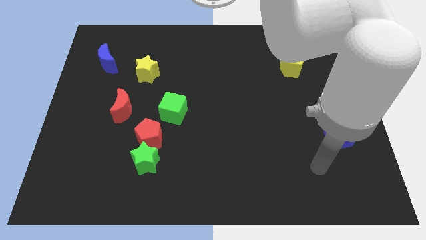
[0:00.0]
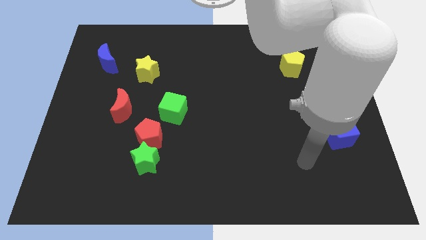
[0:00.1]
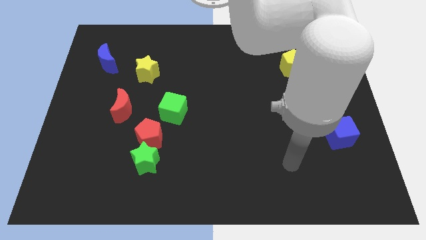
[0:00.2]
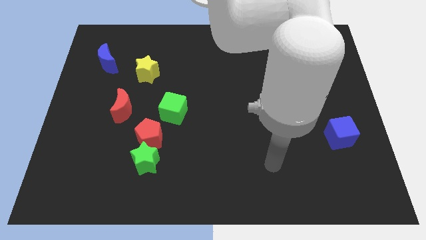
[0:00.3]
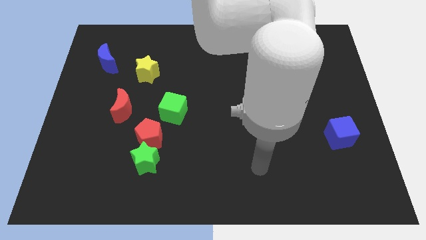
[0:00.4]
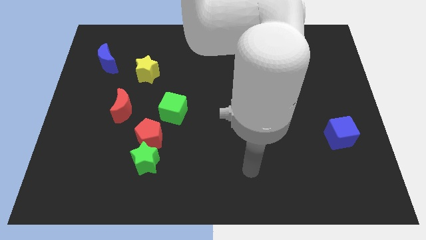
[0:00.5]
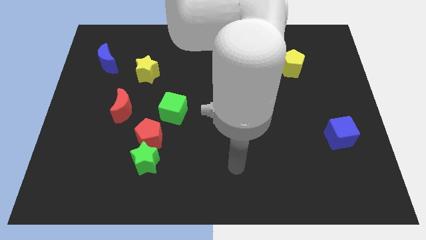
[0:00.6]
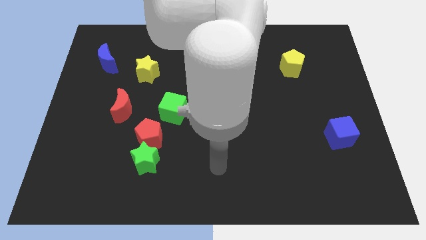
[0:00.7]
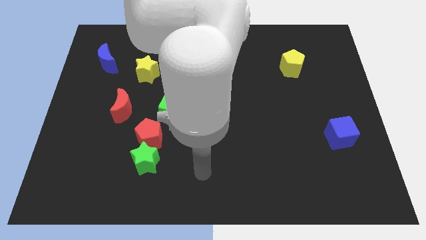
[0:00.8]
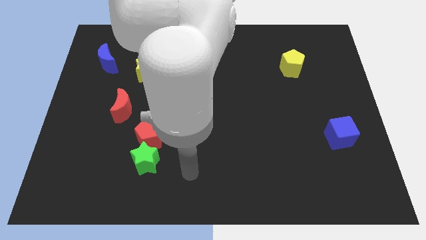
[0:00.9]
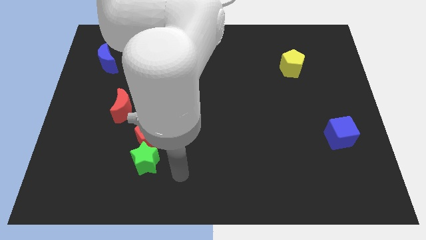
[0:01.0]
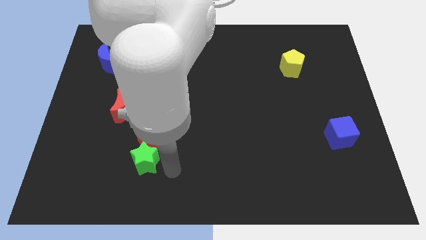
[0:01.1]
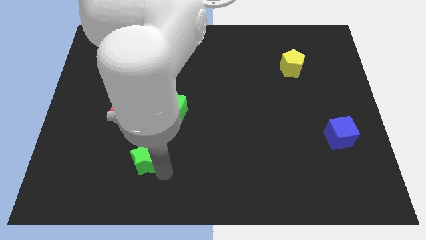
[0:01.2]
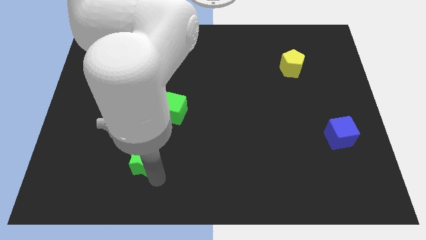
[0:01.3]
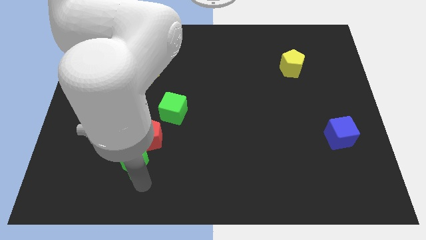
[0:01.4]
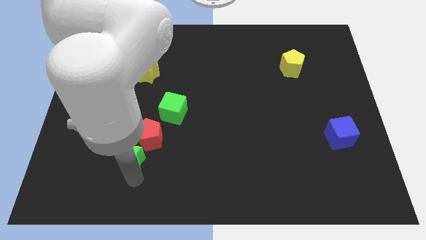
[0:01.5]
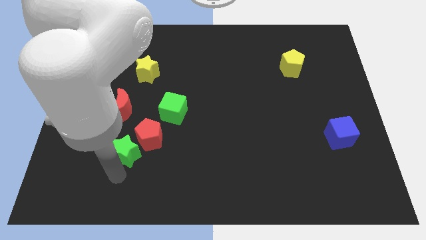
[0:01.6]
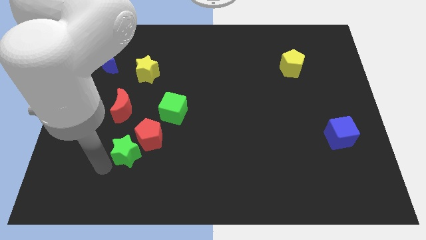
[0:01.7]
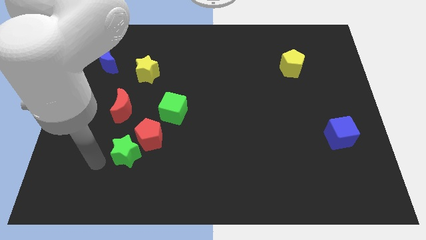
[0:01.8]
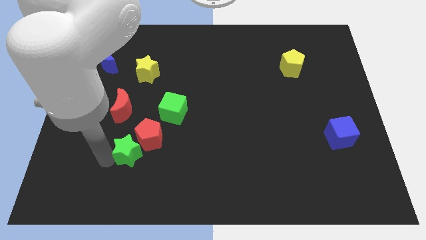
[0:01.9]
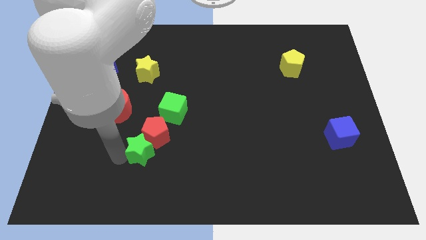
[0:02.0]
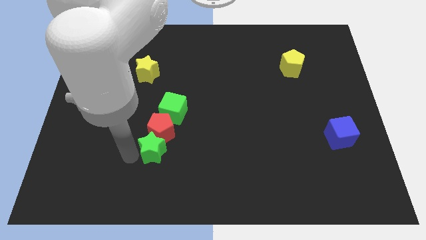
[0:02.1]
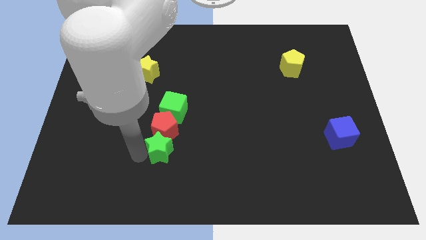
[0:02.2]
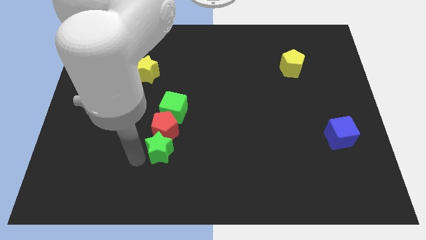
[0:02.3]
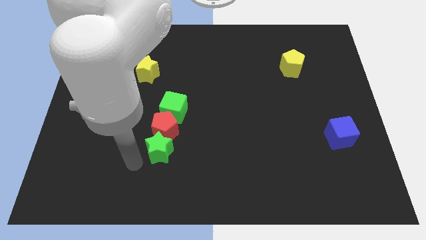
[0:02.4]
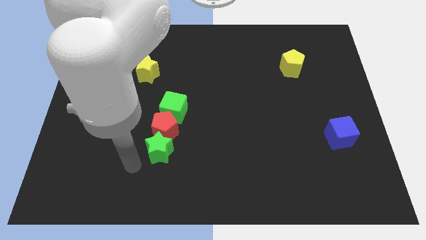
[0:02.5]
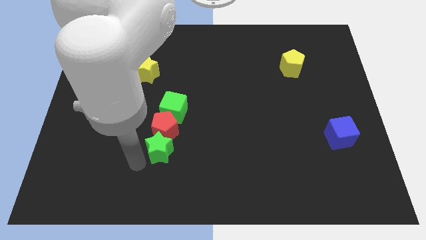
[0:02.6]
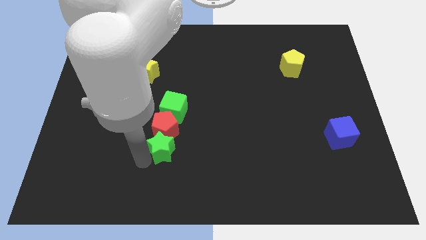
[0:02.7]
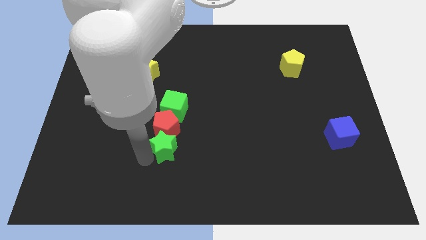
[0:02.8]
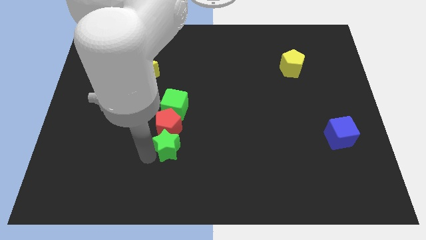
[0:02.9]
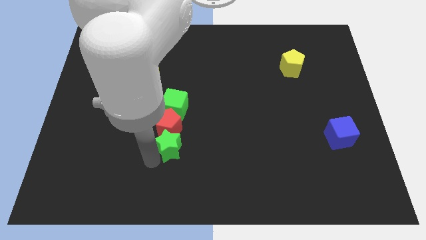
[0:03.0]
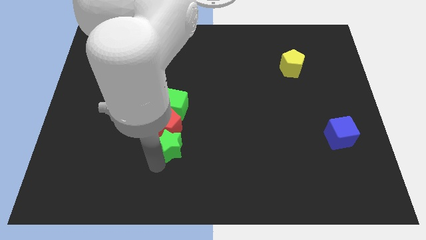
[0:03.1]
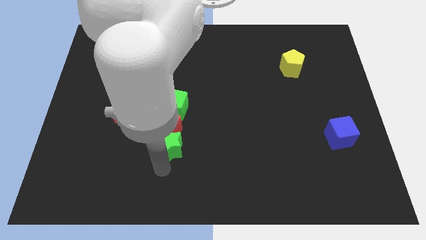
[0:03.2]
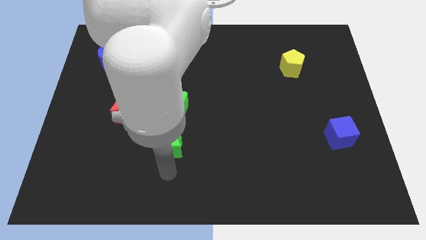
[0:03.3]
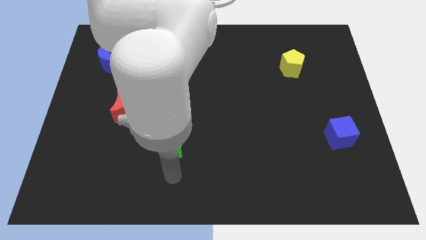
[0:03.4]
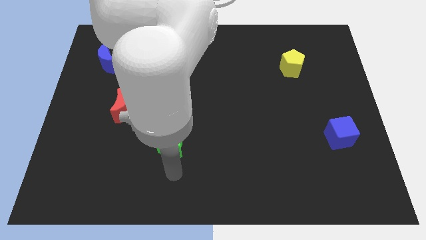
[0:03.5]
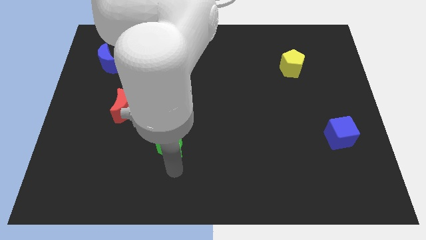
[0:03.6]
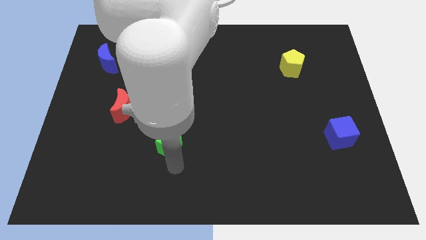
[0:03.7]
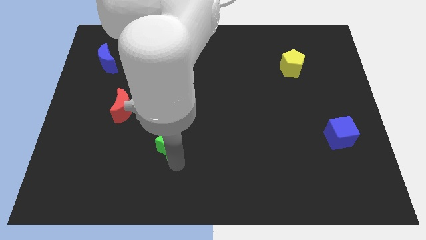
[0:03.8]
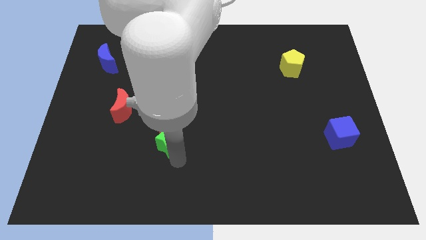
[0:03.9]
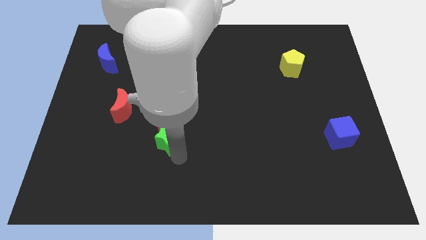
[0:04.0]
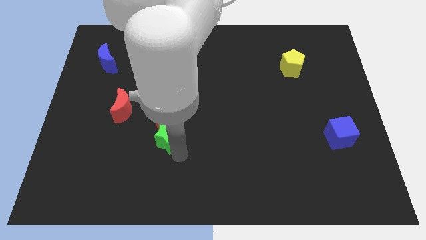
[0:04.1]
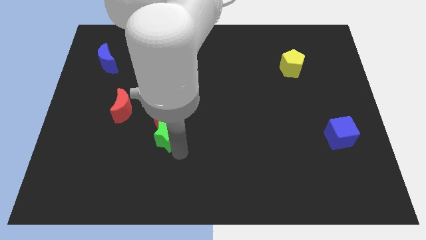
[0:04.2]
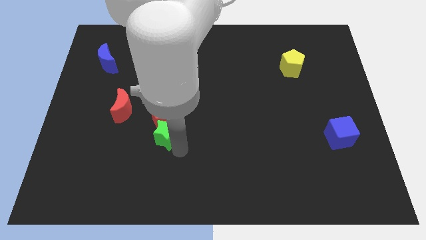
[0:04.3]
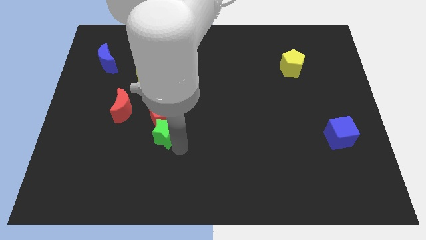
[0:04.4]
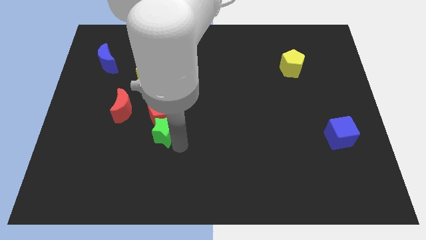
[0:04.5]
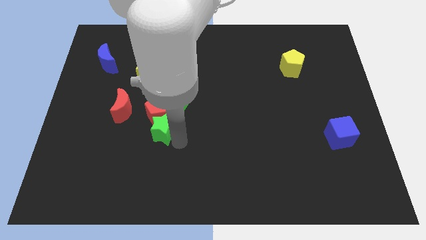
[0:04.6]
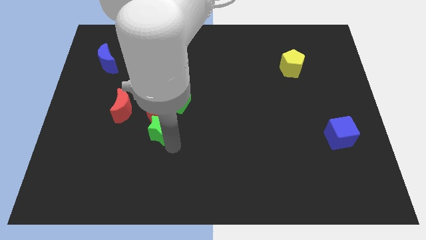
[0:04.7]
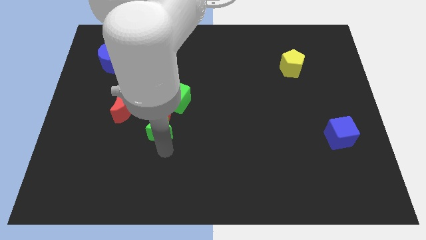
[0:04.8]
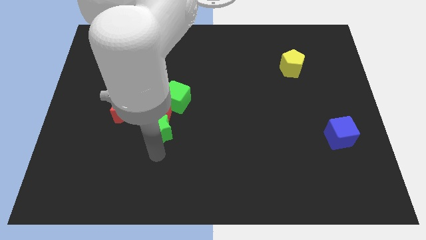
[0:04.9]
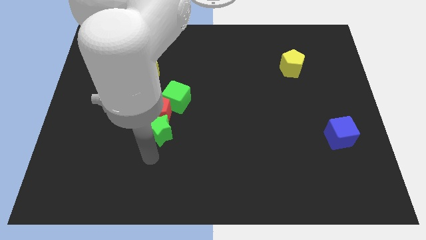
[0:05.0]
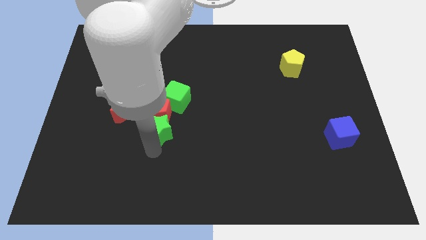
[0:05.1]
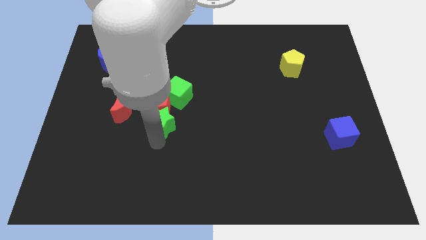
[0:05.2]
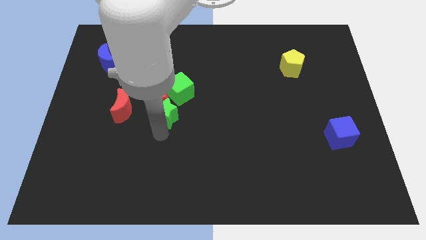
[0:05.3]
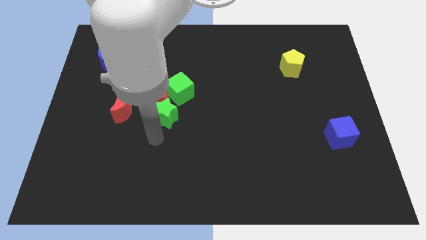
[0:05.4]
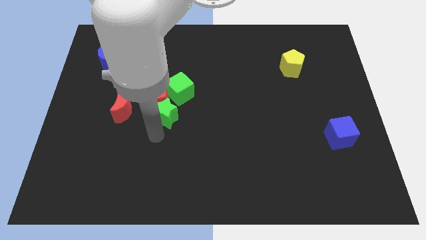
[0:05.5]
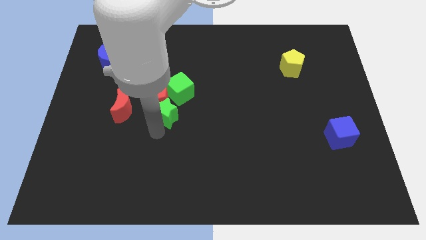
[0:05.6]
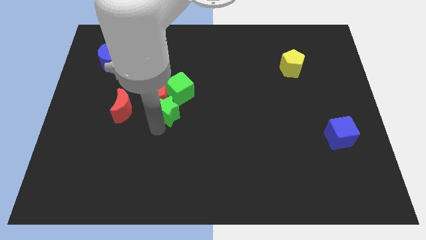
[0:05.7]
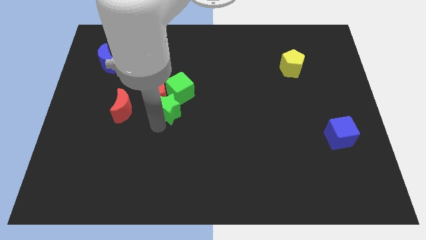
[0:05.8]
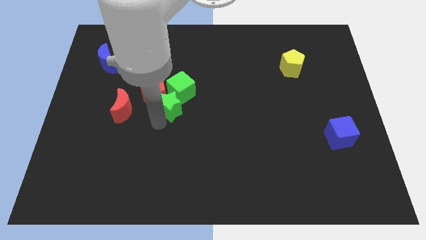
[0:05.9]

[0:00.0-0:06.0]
put the green star towards the green cube

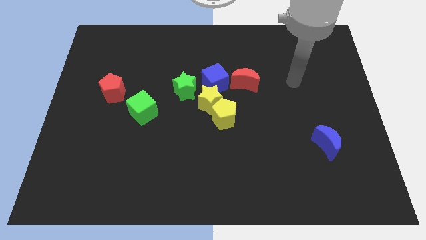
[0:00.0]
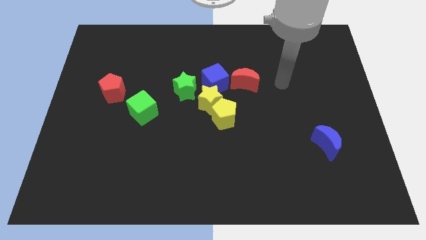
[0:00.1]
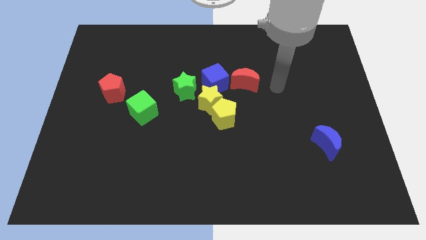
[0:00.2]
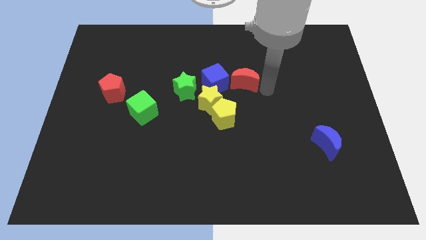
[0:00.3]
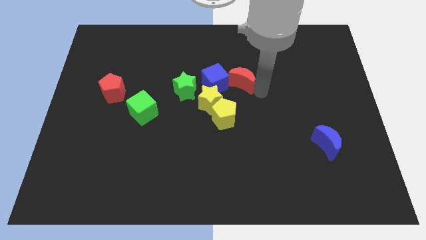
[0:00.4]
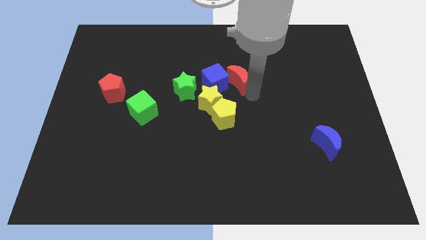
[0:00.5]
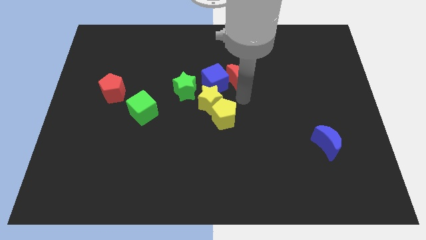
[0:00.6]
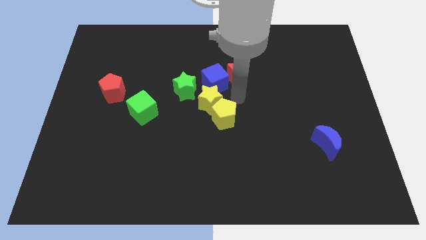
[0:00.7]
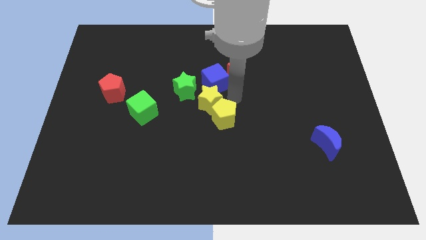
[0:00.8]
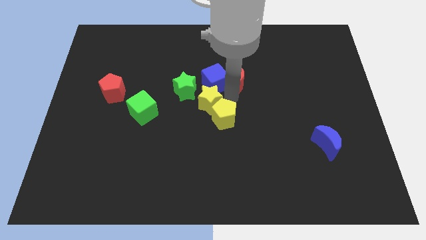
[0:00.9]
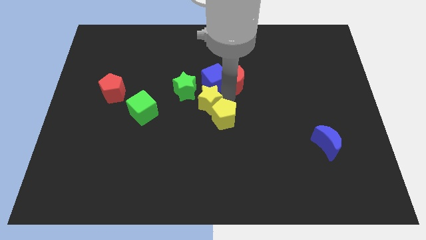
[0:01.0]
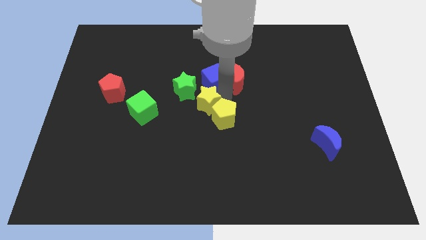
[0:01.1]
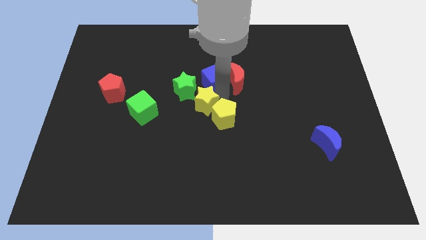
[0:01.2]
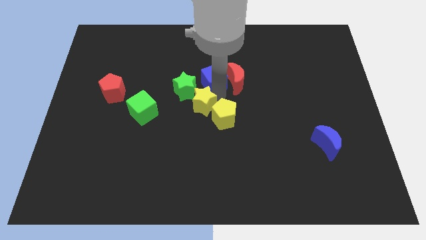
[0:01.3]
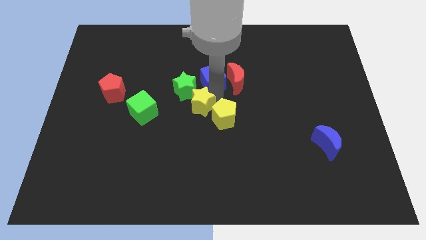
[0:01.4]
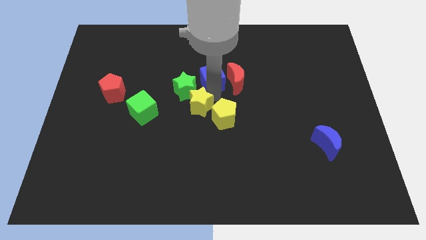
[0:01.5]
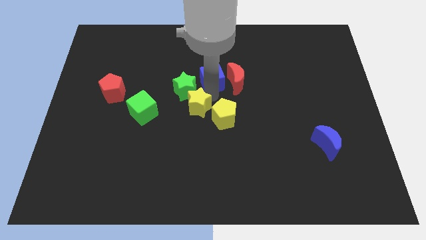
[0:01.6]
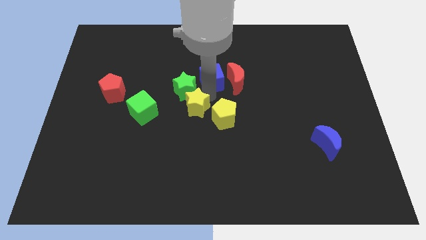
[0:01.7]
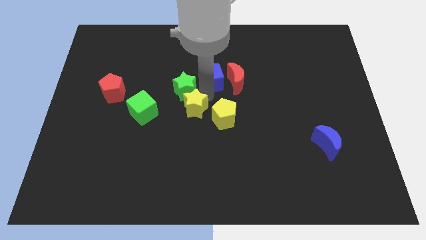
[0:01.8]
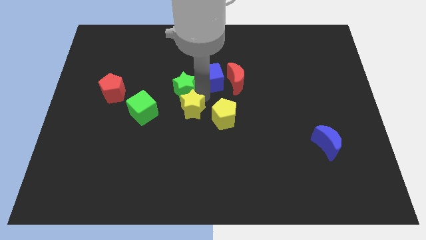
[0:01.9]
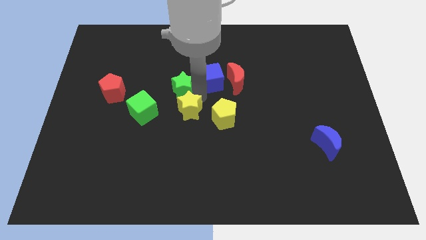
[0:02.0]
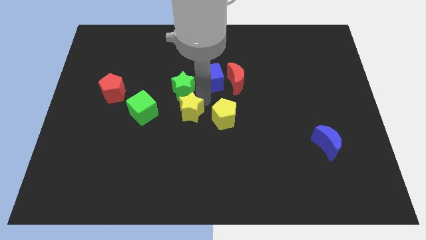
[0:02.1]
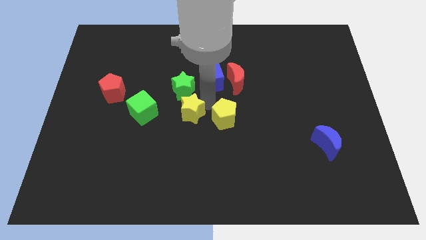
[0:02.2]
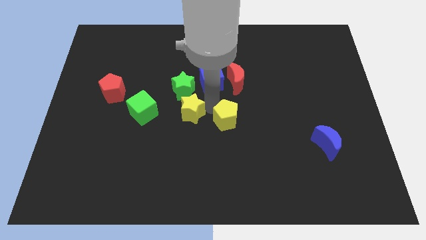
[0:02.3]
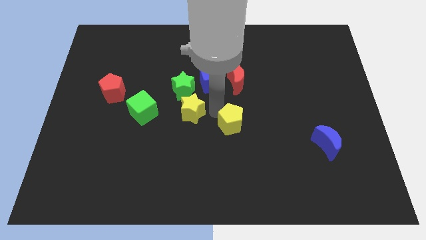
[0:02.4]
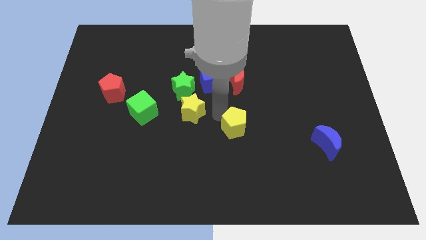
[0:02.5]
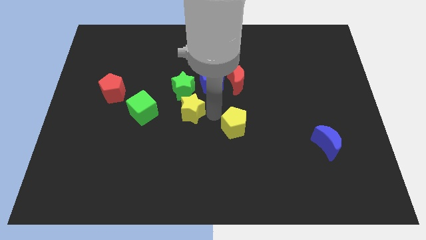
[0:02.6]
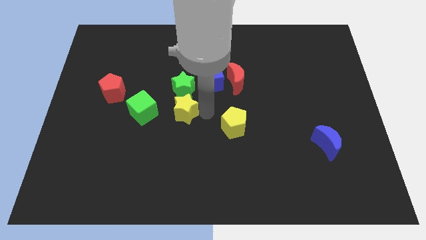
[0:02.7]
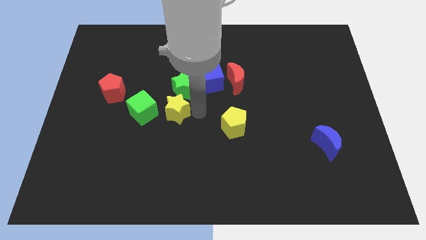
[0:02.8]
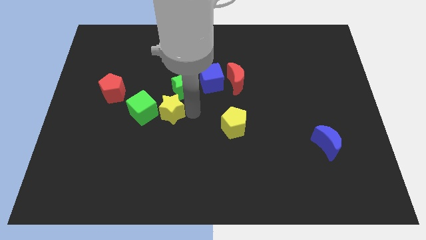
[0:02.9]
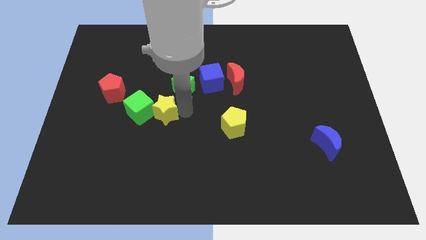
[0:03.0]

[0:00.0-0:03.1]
put the yellow star towards the green cube
